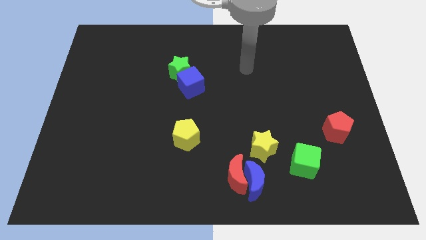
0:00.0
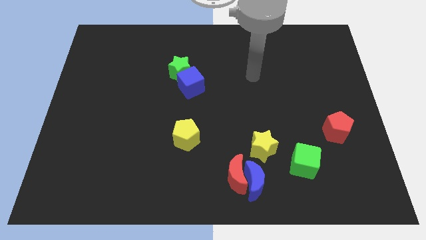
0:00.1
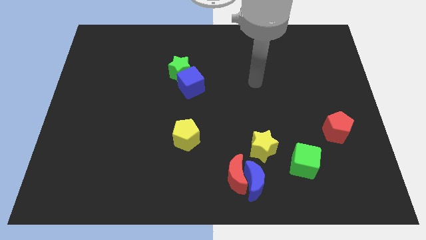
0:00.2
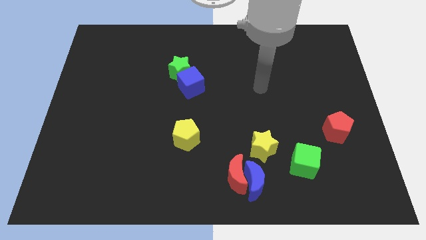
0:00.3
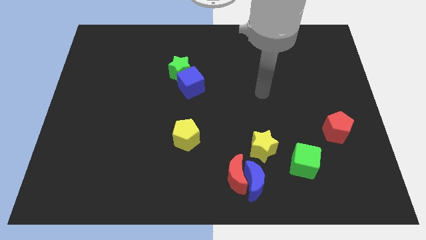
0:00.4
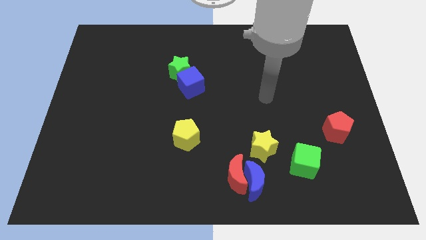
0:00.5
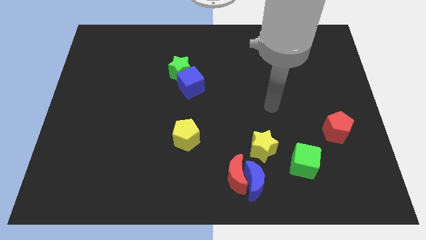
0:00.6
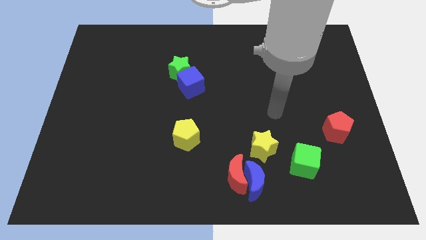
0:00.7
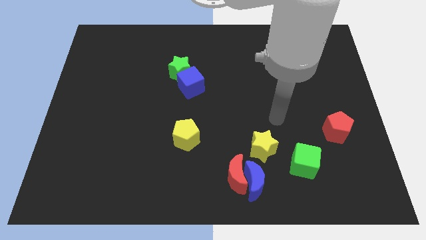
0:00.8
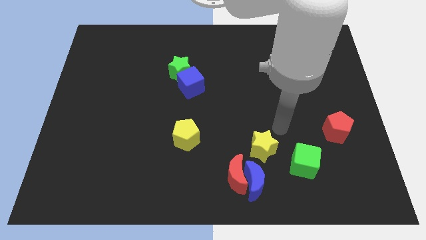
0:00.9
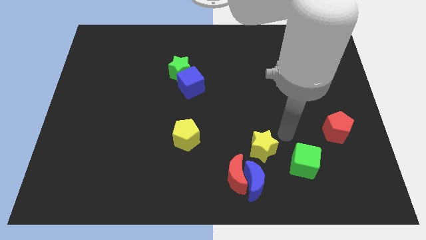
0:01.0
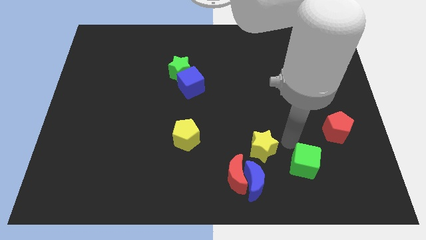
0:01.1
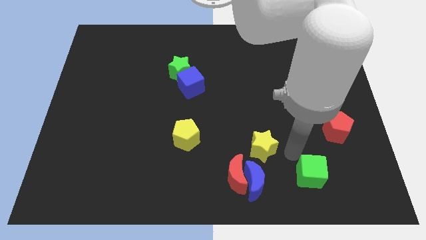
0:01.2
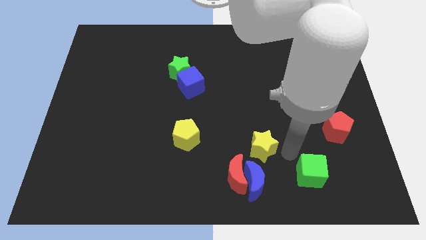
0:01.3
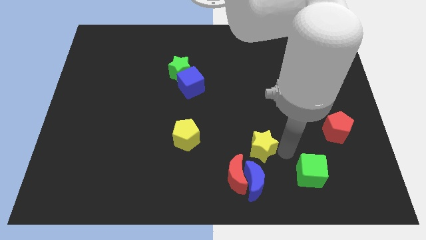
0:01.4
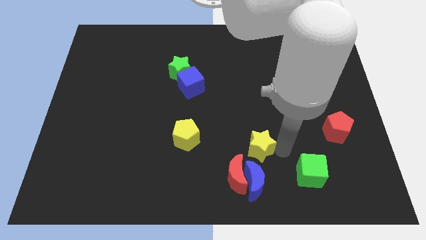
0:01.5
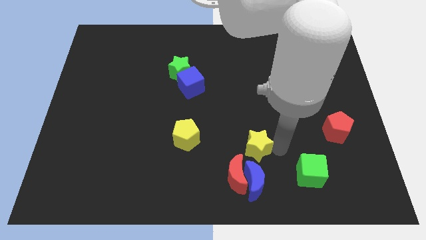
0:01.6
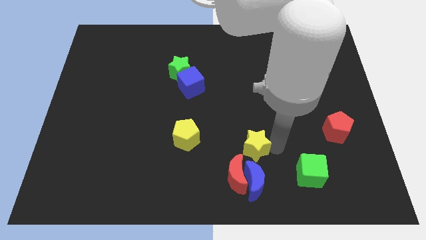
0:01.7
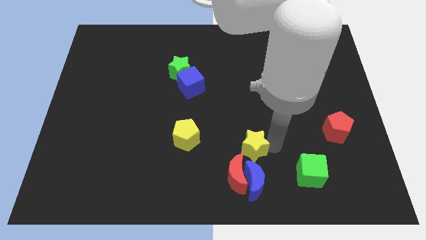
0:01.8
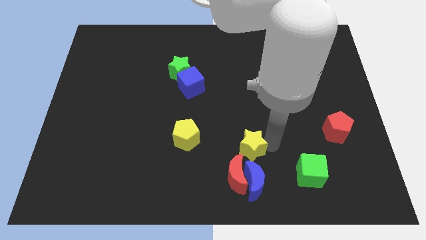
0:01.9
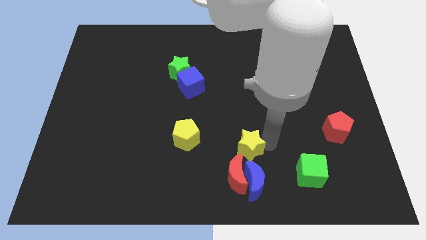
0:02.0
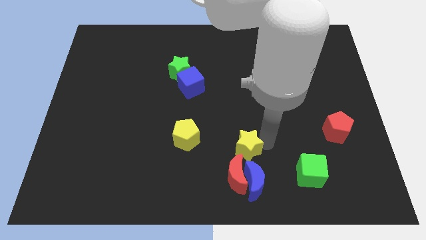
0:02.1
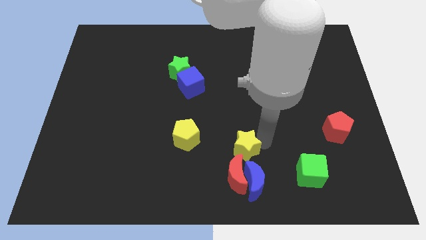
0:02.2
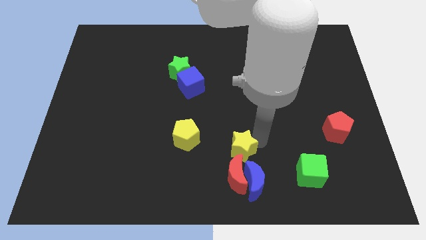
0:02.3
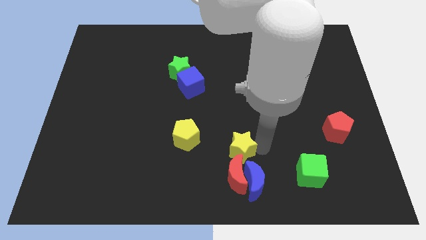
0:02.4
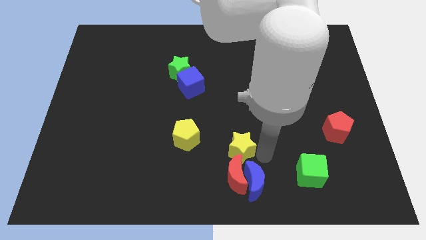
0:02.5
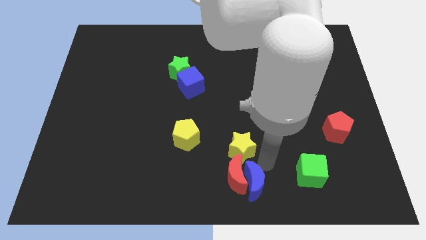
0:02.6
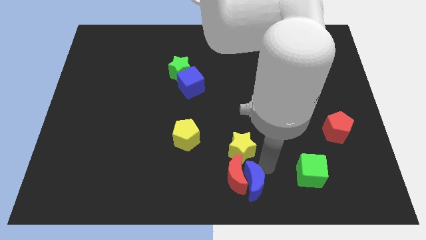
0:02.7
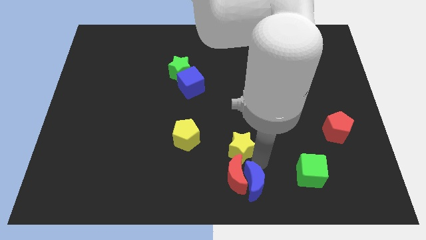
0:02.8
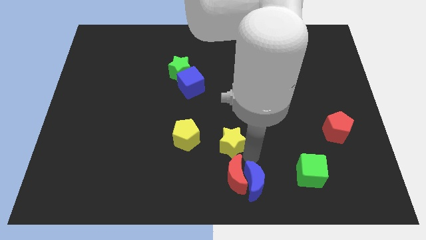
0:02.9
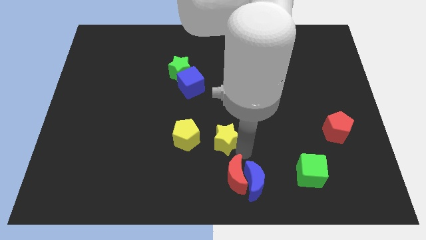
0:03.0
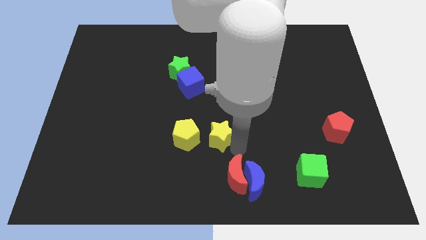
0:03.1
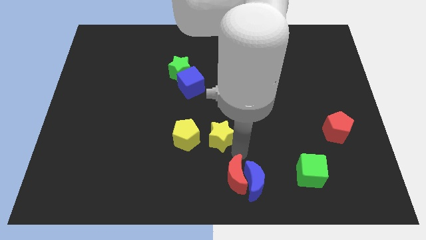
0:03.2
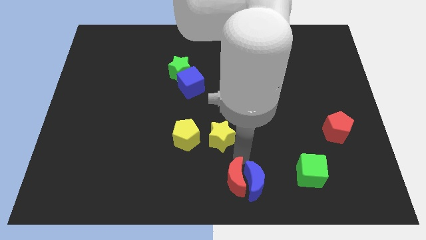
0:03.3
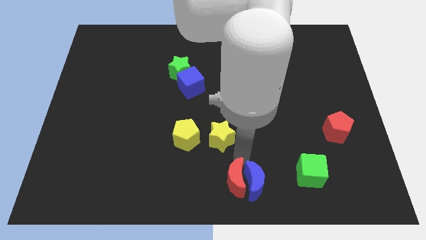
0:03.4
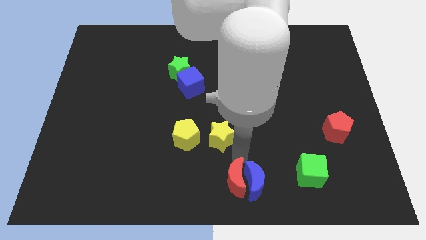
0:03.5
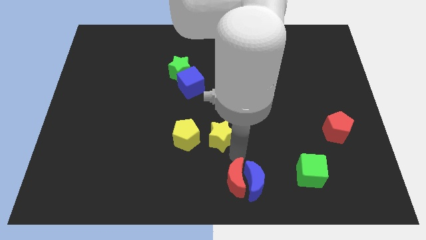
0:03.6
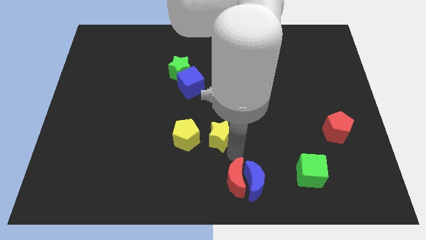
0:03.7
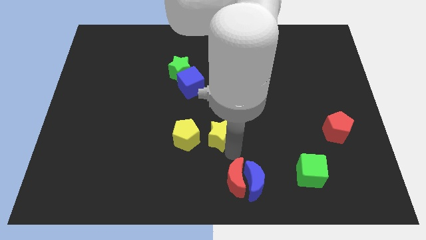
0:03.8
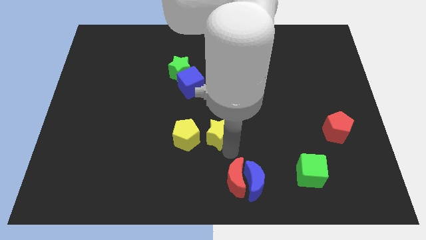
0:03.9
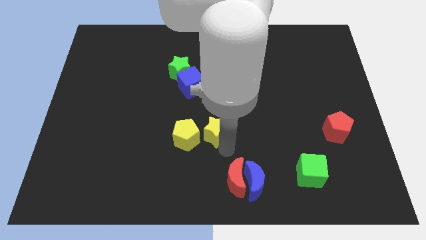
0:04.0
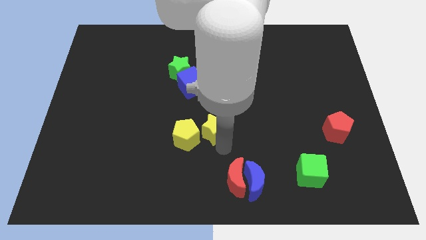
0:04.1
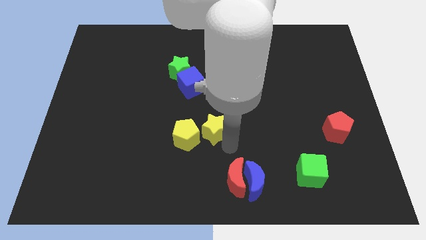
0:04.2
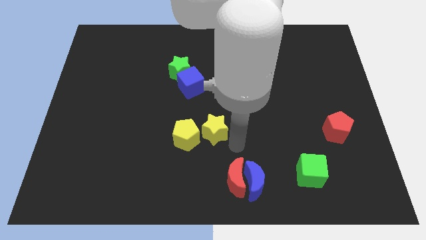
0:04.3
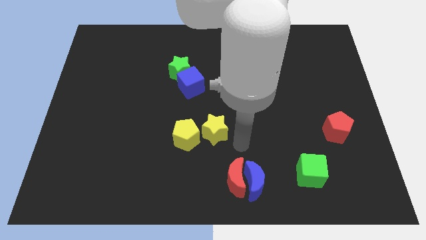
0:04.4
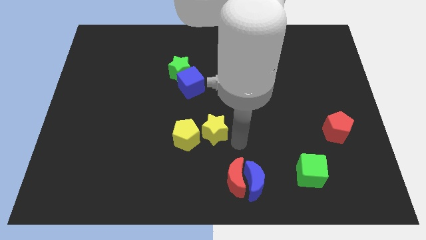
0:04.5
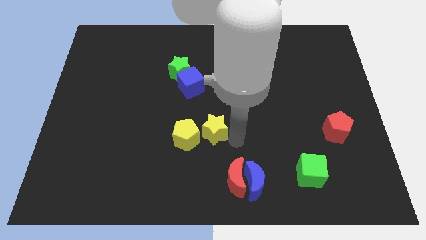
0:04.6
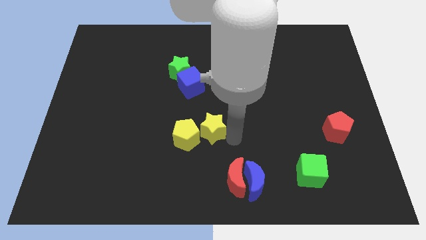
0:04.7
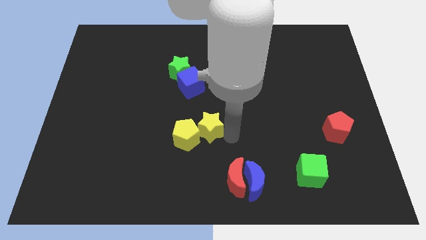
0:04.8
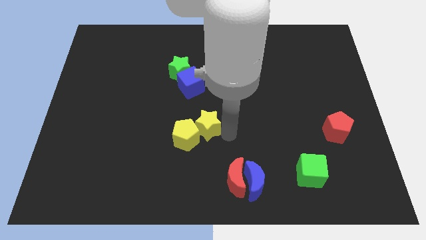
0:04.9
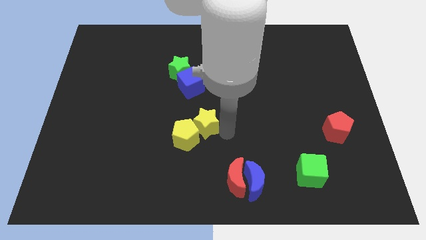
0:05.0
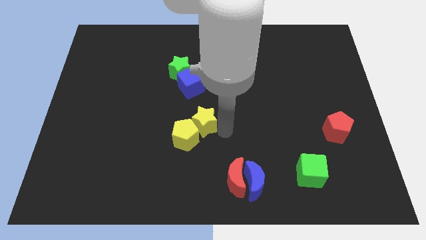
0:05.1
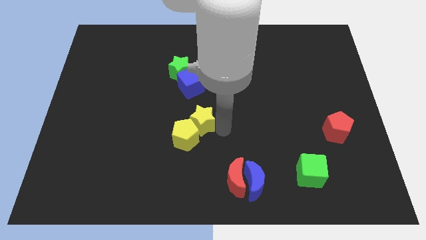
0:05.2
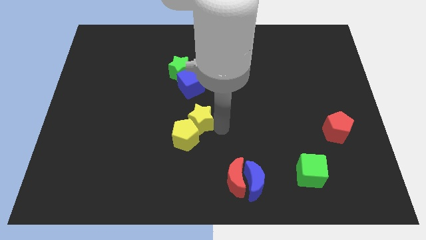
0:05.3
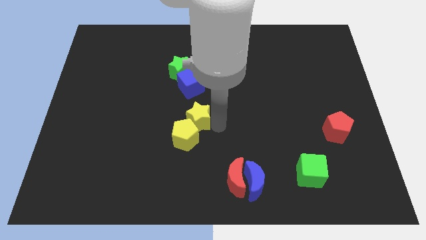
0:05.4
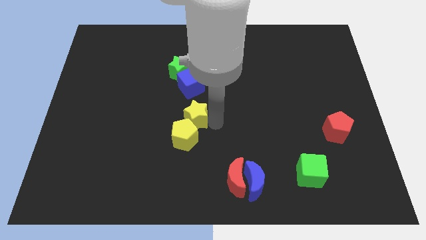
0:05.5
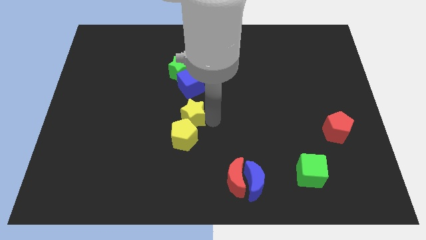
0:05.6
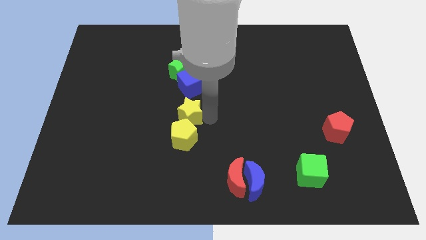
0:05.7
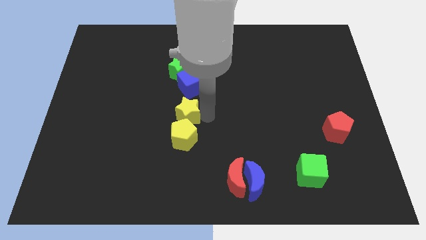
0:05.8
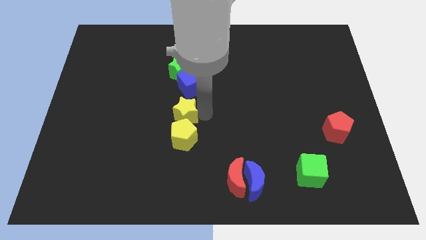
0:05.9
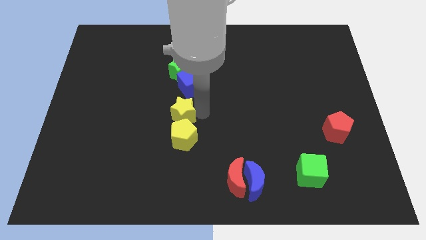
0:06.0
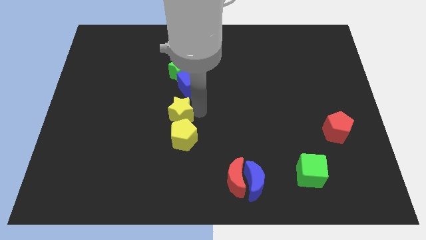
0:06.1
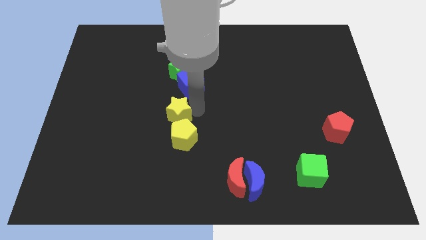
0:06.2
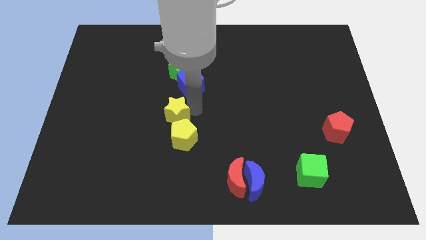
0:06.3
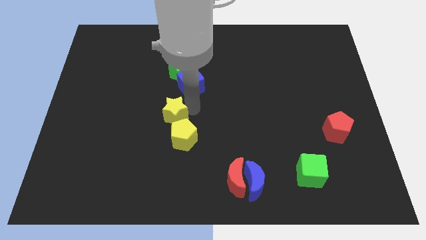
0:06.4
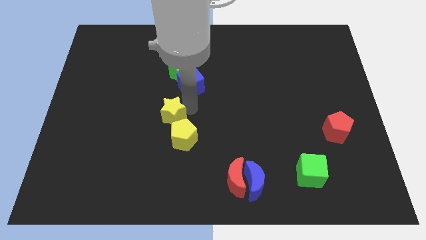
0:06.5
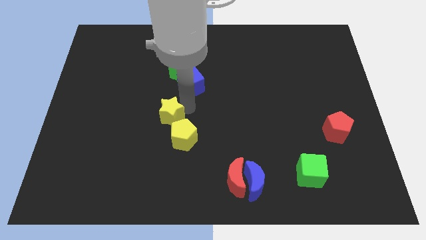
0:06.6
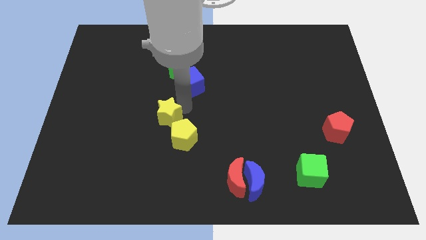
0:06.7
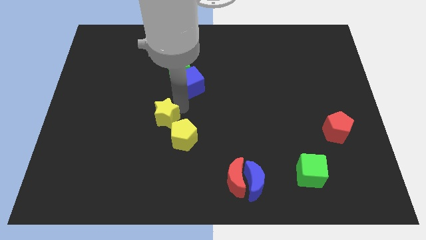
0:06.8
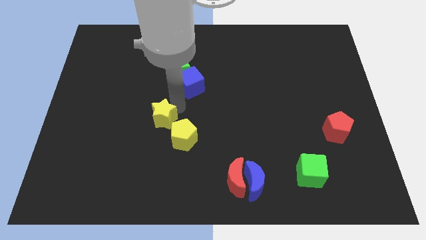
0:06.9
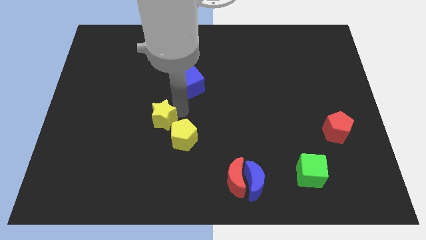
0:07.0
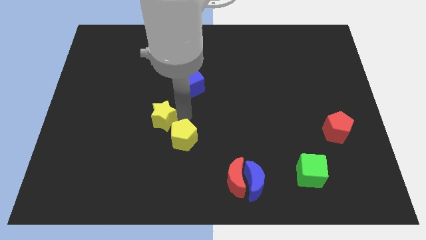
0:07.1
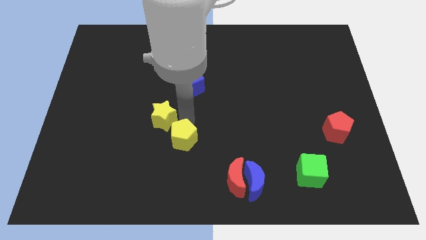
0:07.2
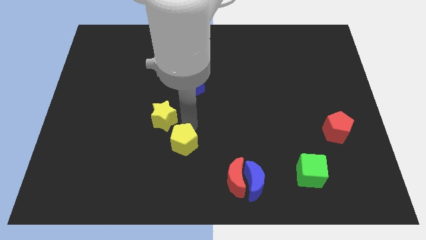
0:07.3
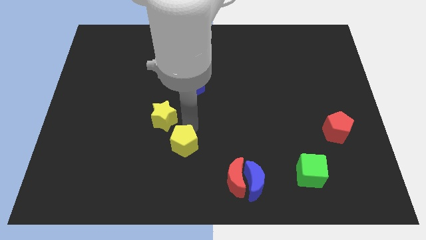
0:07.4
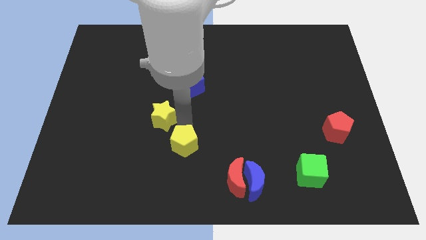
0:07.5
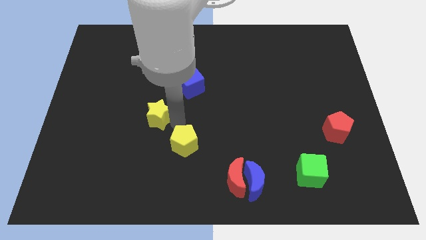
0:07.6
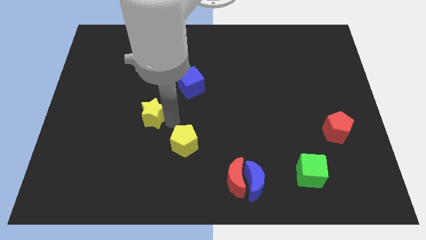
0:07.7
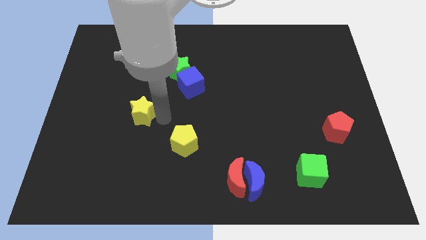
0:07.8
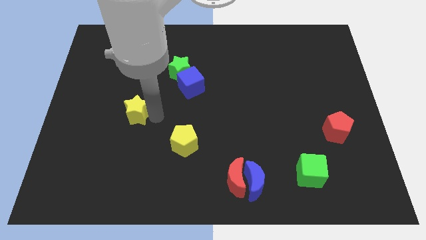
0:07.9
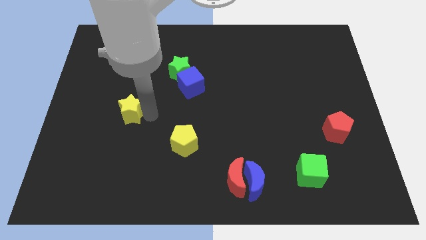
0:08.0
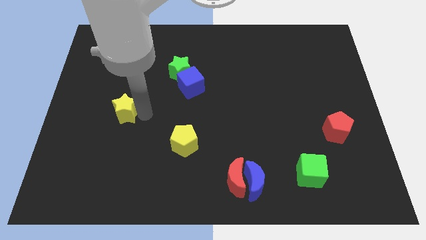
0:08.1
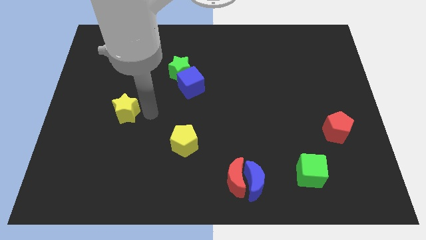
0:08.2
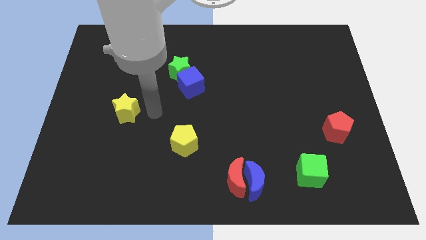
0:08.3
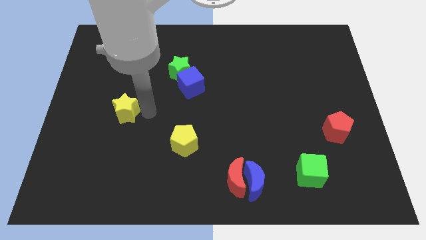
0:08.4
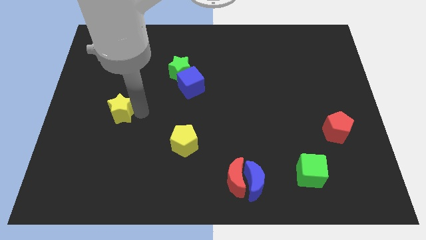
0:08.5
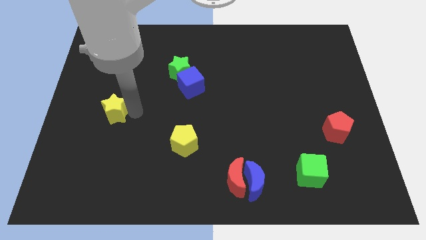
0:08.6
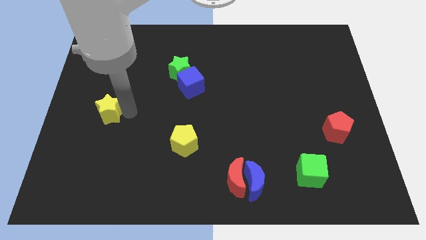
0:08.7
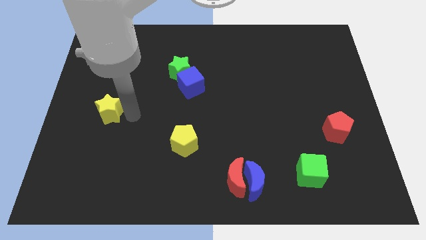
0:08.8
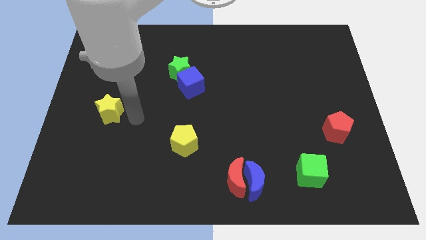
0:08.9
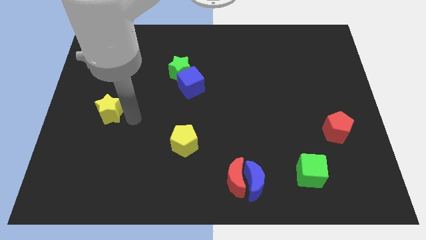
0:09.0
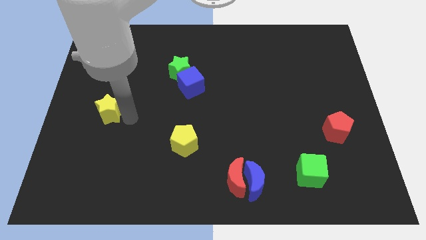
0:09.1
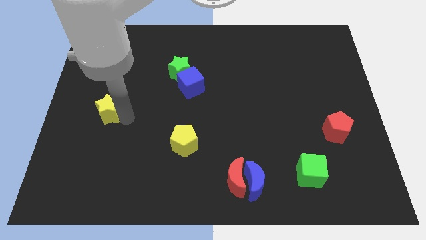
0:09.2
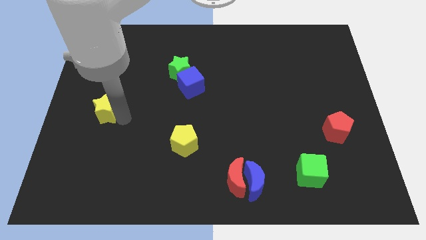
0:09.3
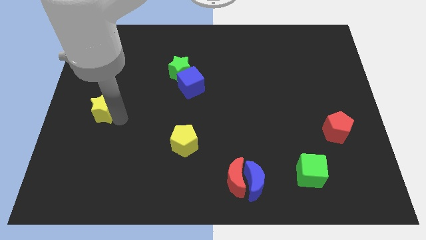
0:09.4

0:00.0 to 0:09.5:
put the yellow star to the center left
